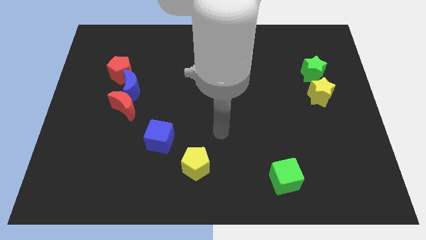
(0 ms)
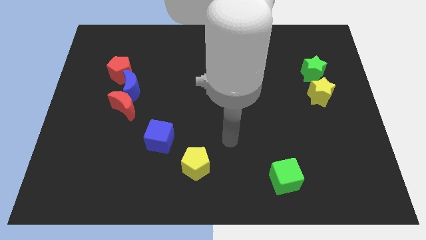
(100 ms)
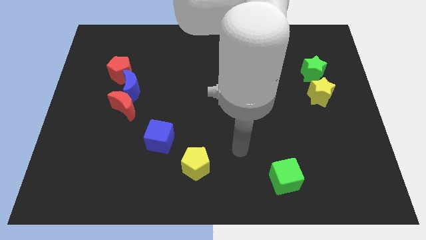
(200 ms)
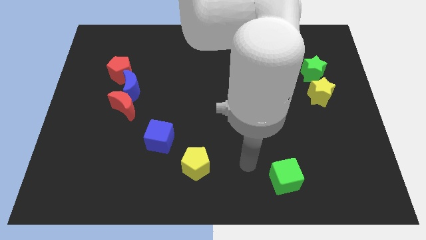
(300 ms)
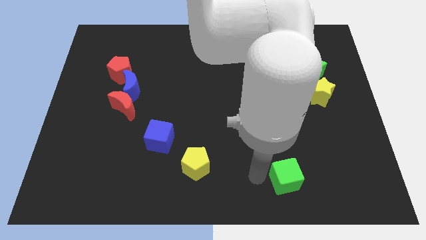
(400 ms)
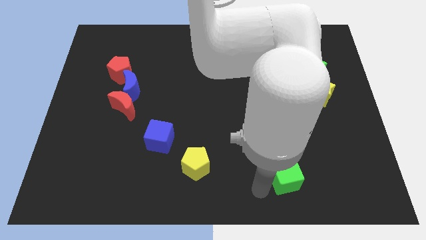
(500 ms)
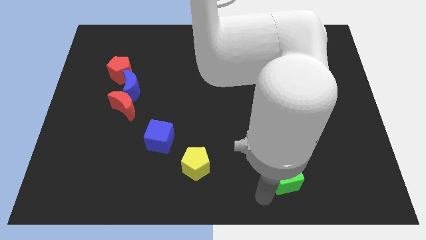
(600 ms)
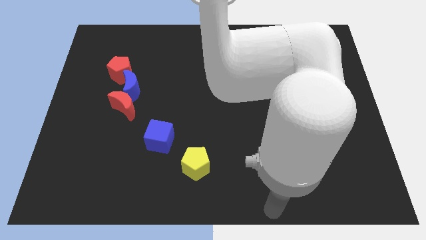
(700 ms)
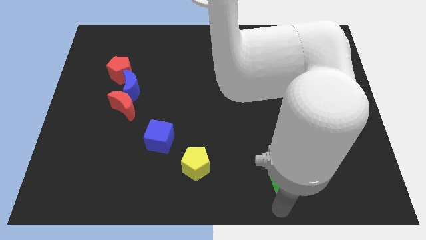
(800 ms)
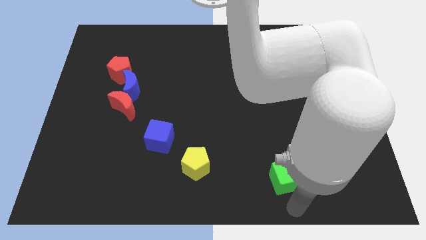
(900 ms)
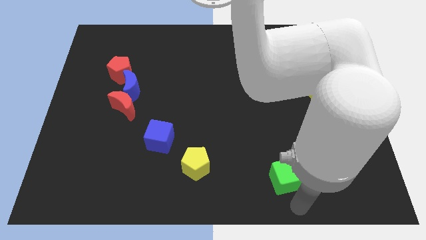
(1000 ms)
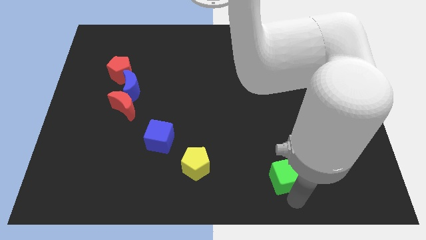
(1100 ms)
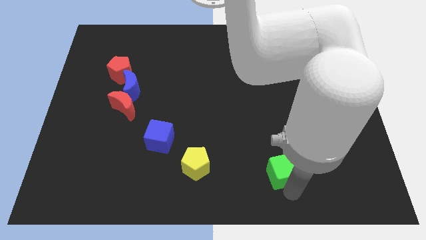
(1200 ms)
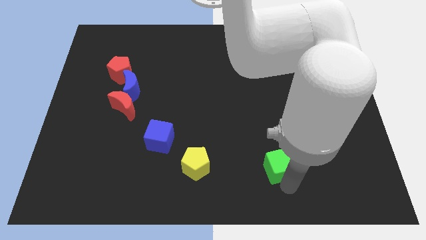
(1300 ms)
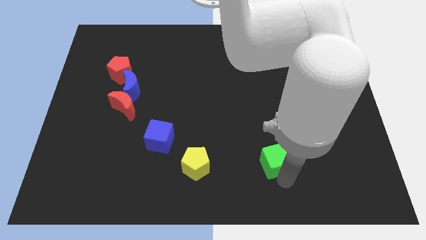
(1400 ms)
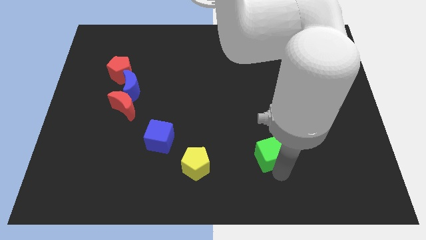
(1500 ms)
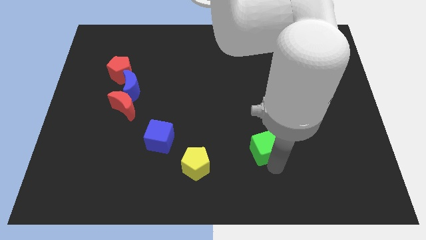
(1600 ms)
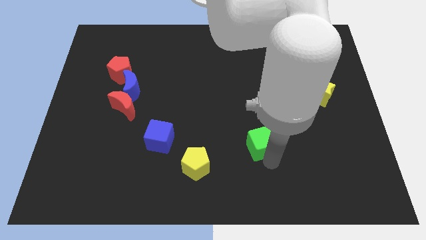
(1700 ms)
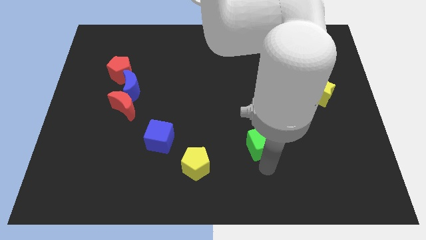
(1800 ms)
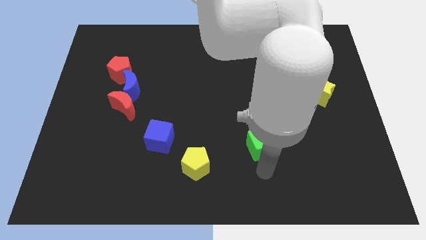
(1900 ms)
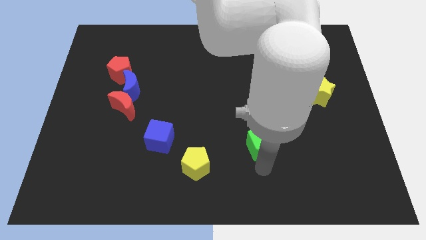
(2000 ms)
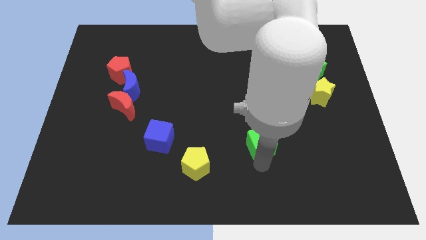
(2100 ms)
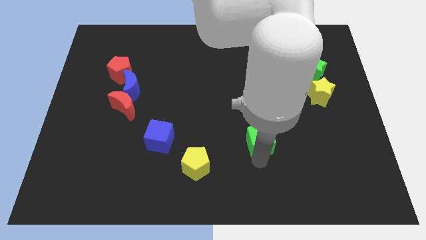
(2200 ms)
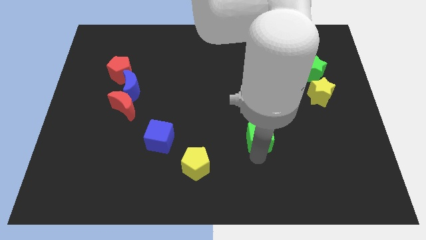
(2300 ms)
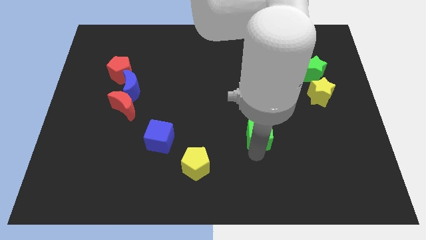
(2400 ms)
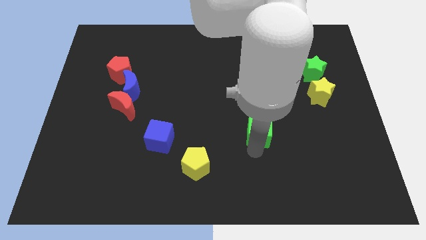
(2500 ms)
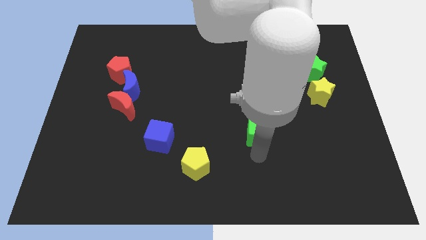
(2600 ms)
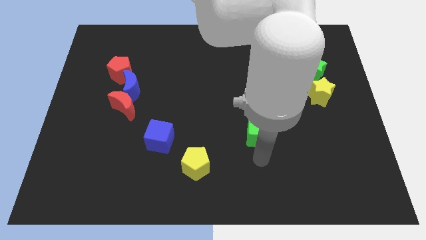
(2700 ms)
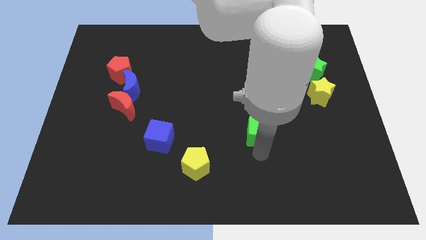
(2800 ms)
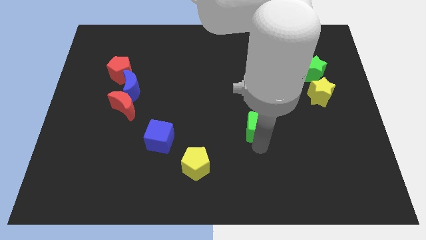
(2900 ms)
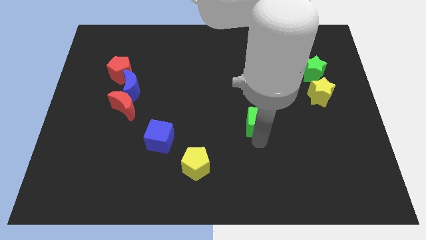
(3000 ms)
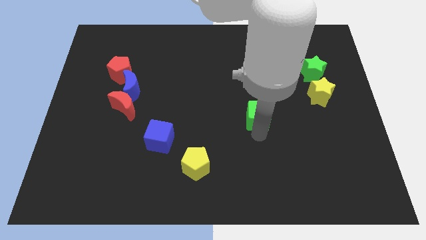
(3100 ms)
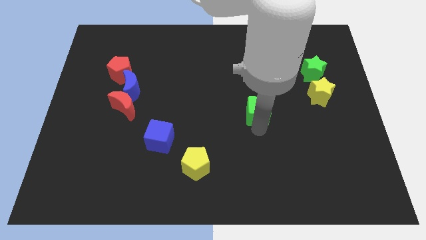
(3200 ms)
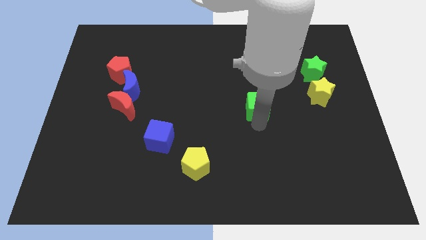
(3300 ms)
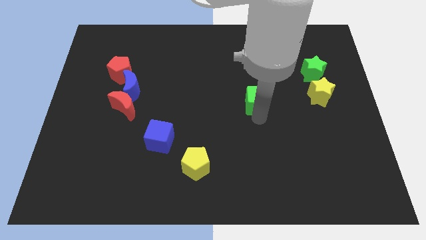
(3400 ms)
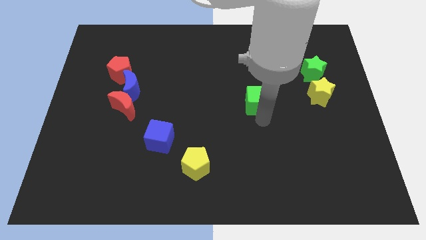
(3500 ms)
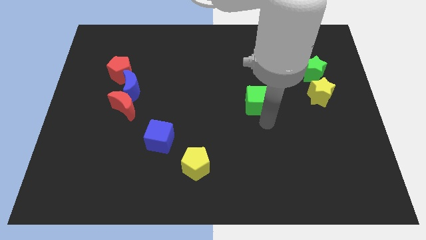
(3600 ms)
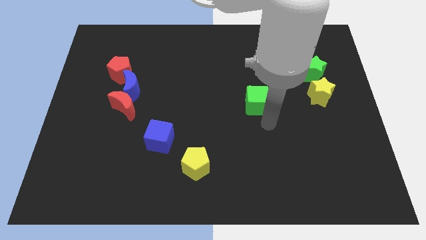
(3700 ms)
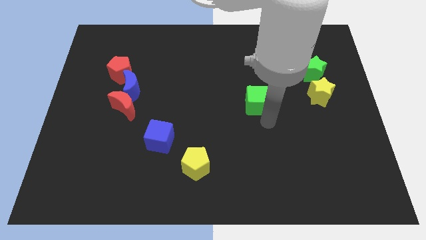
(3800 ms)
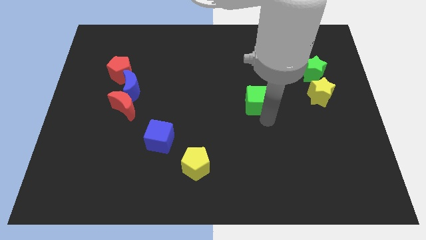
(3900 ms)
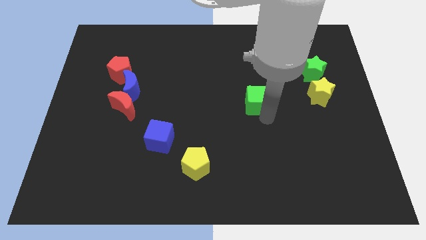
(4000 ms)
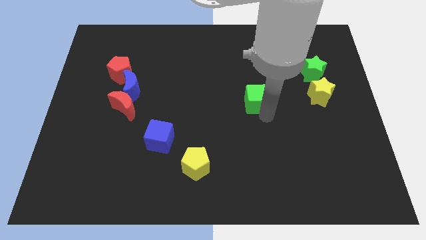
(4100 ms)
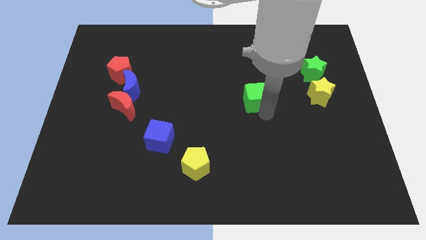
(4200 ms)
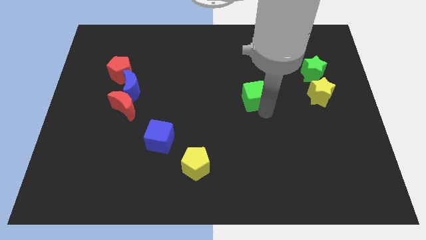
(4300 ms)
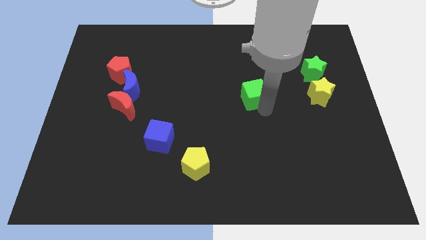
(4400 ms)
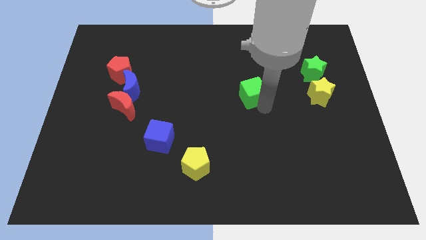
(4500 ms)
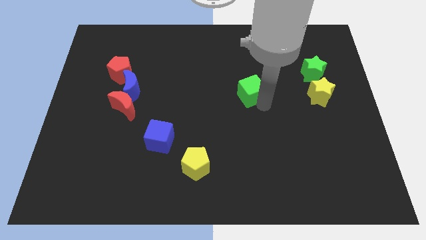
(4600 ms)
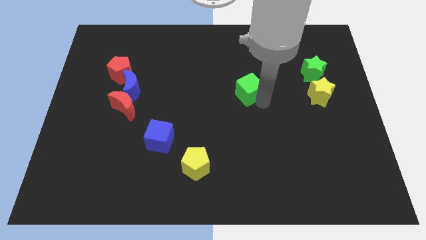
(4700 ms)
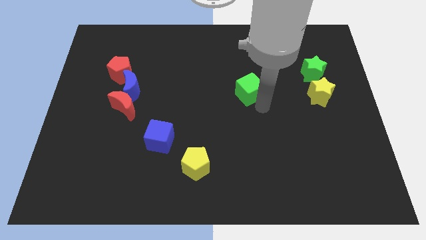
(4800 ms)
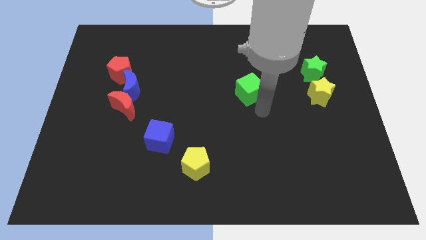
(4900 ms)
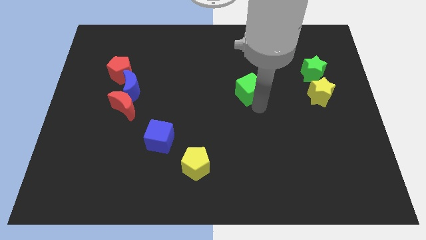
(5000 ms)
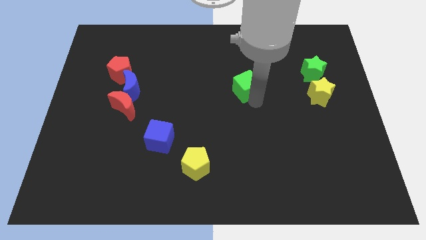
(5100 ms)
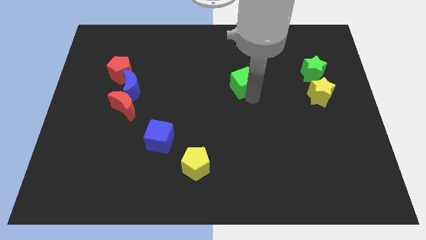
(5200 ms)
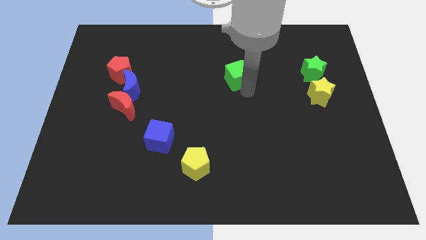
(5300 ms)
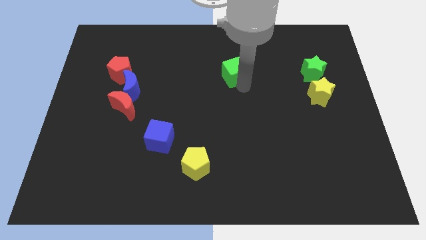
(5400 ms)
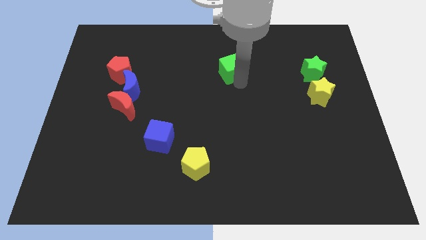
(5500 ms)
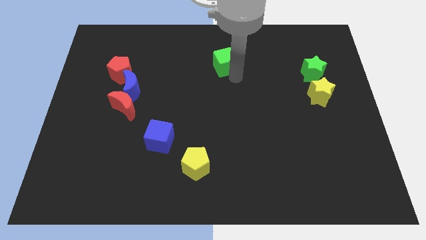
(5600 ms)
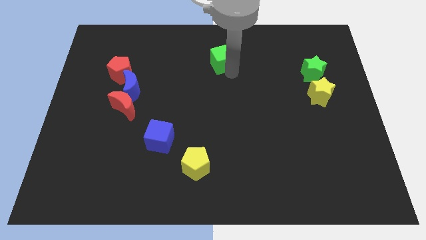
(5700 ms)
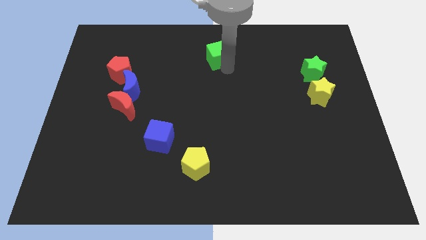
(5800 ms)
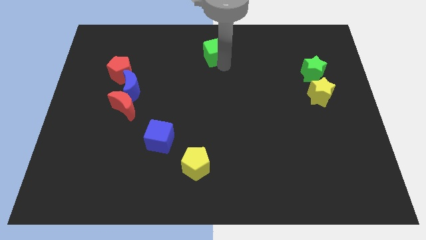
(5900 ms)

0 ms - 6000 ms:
slide the green cube to the top
